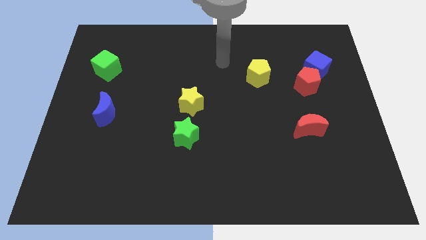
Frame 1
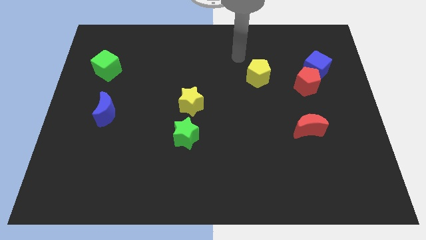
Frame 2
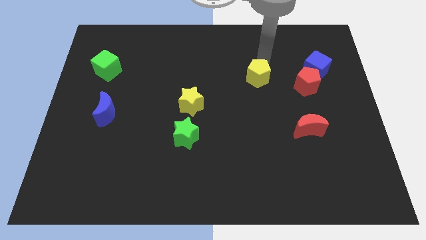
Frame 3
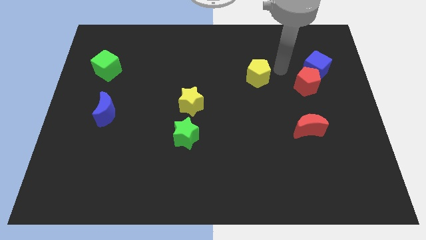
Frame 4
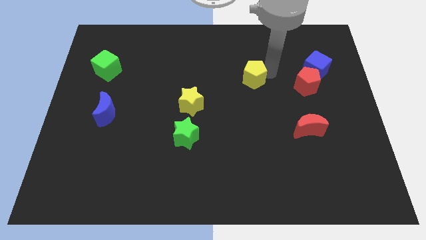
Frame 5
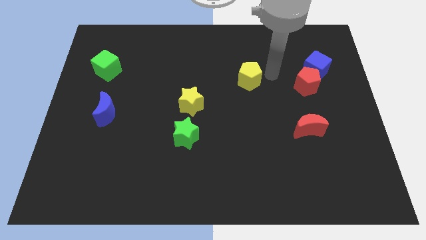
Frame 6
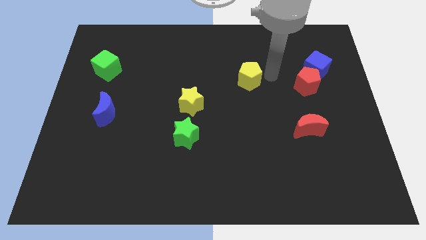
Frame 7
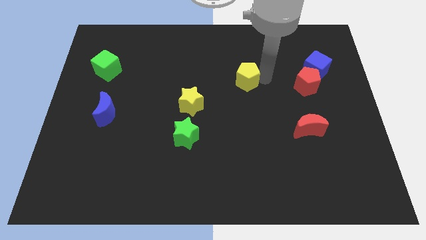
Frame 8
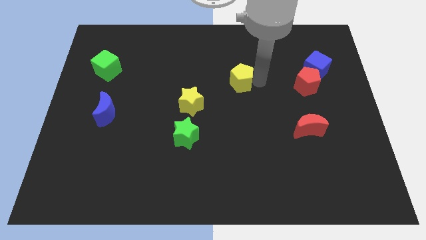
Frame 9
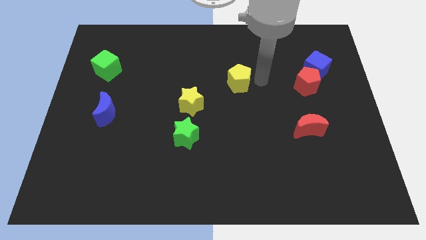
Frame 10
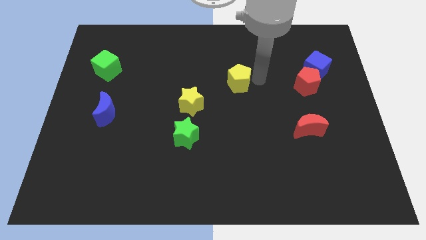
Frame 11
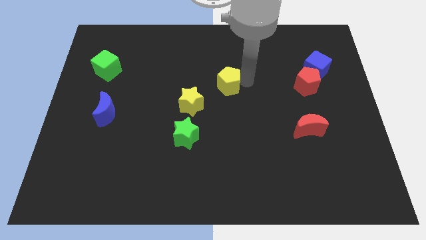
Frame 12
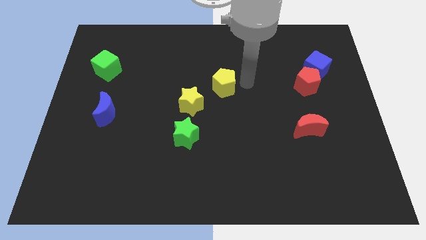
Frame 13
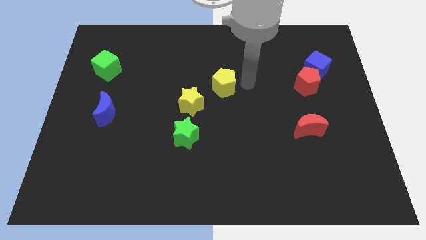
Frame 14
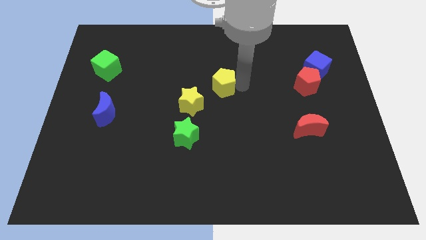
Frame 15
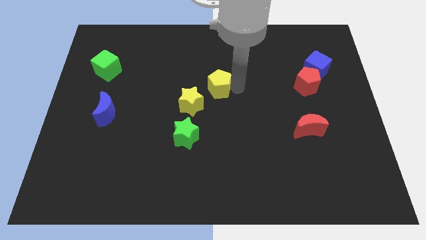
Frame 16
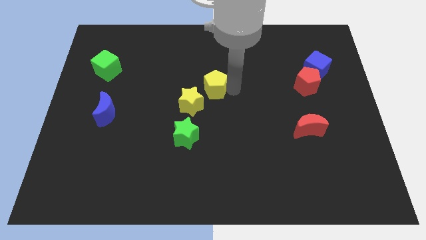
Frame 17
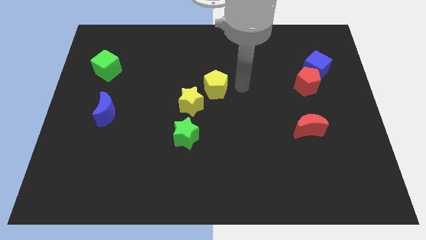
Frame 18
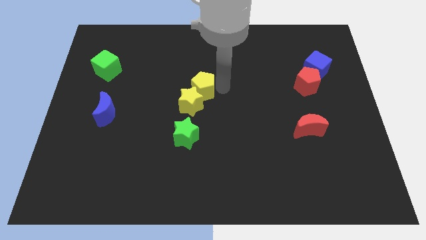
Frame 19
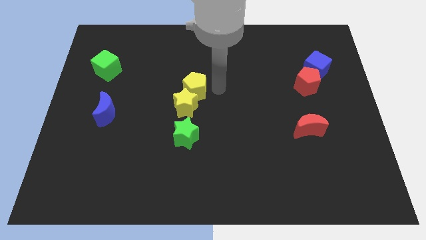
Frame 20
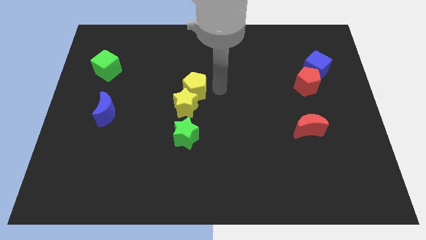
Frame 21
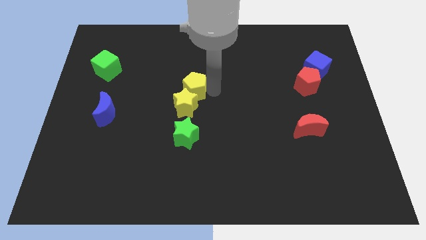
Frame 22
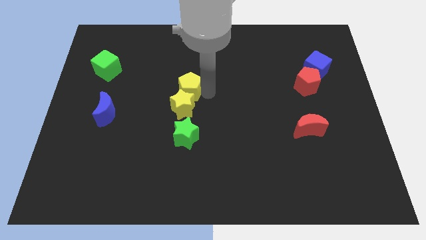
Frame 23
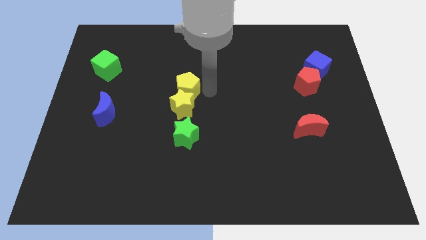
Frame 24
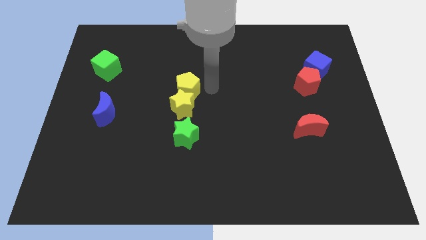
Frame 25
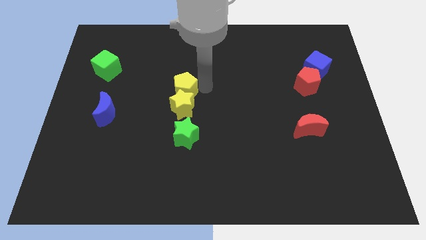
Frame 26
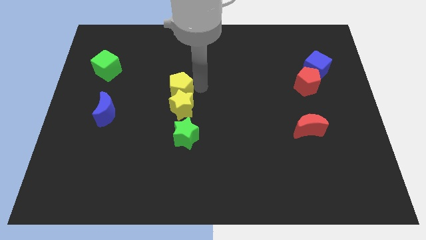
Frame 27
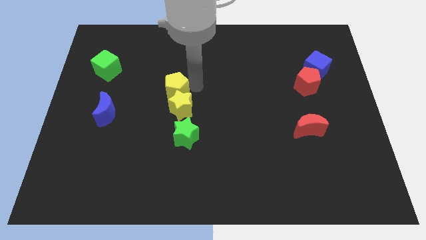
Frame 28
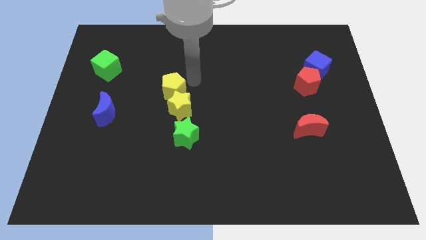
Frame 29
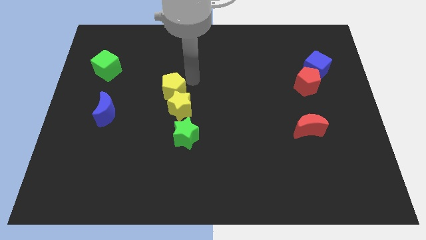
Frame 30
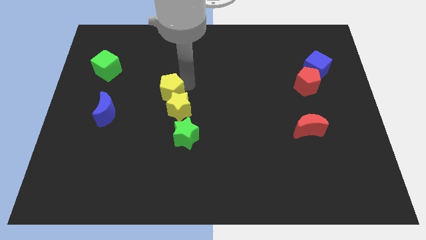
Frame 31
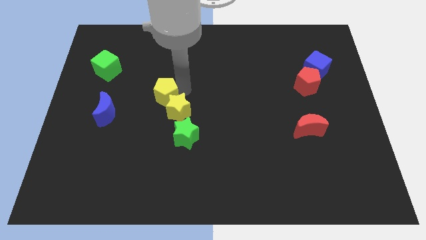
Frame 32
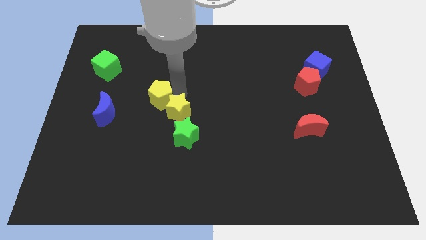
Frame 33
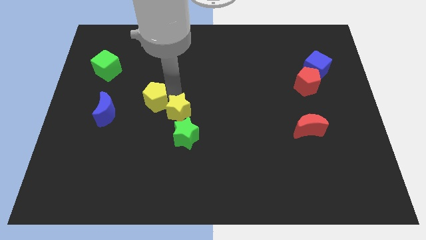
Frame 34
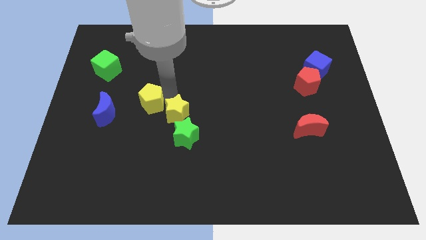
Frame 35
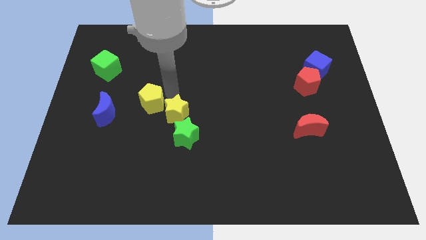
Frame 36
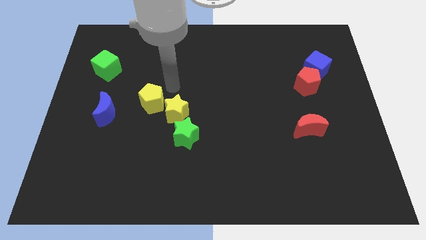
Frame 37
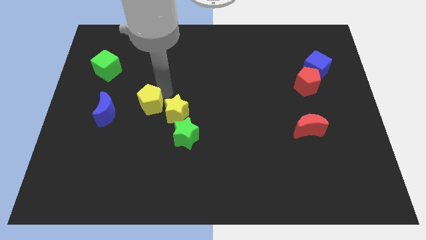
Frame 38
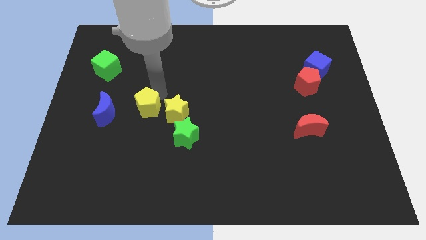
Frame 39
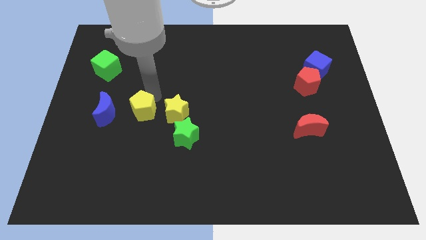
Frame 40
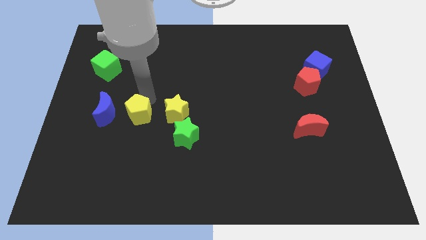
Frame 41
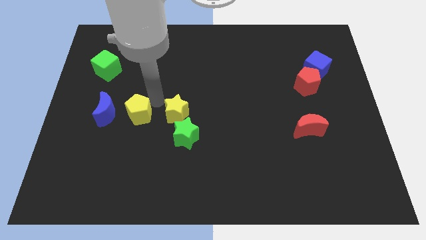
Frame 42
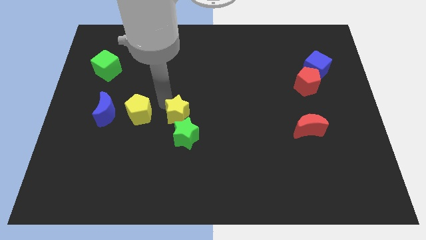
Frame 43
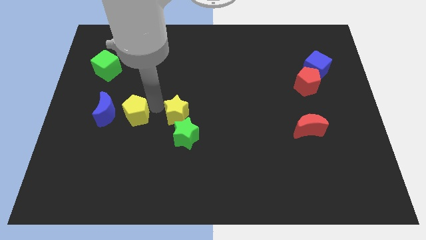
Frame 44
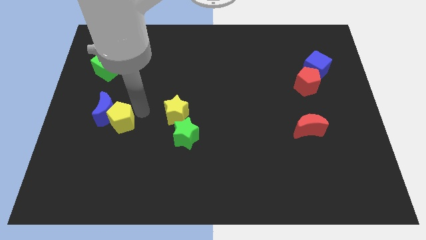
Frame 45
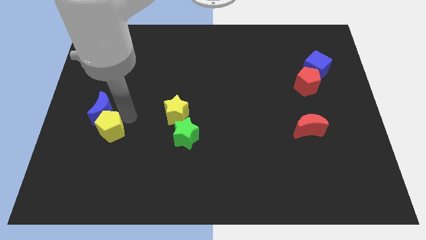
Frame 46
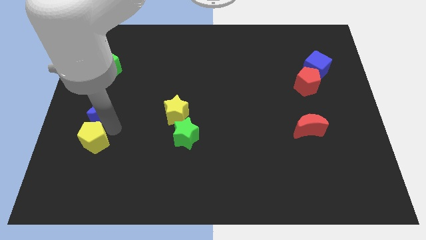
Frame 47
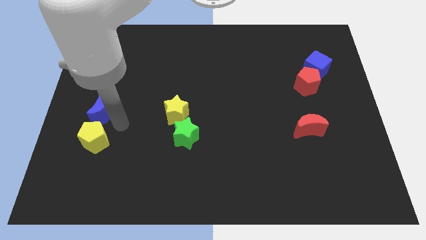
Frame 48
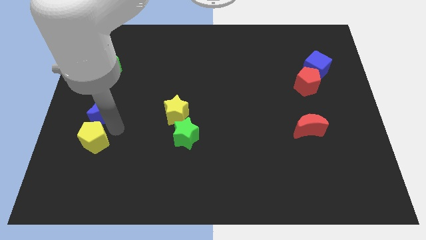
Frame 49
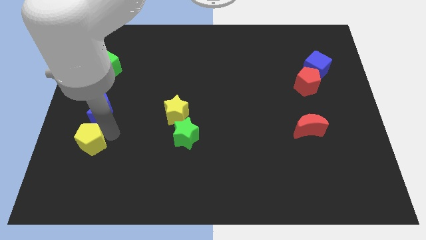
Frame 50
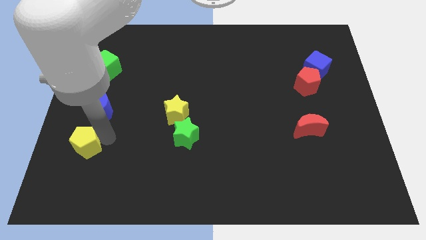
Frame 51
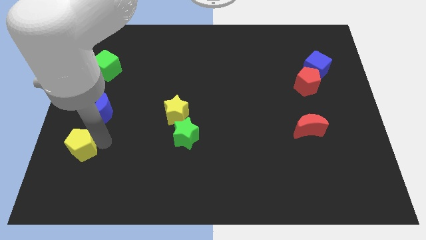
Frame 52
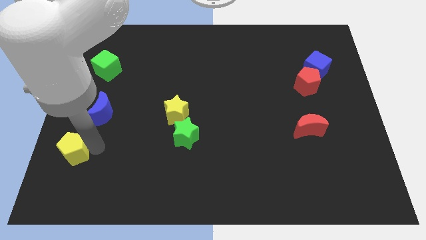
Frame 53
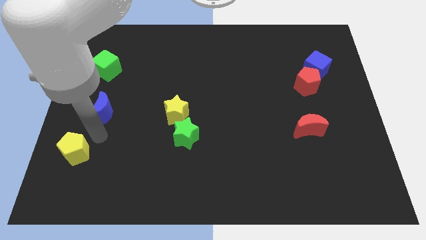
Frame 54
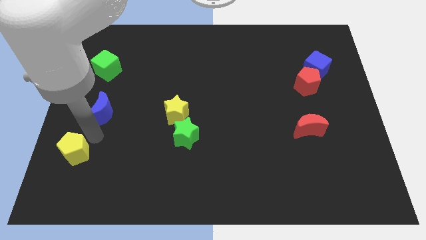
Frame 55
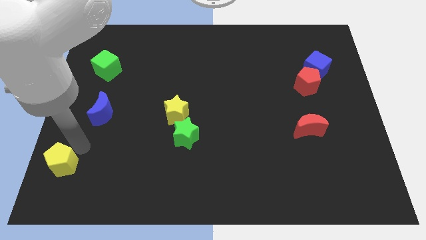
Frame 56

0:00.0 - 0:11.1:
put the yellow pentagon to the lower left corner

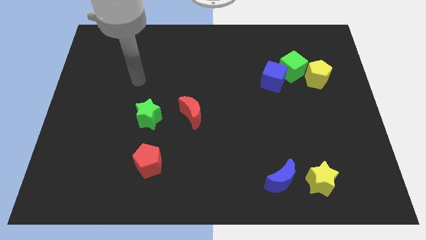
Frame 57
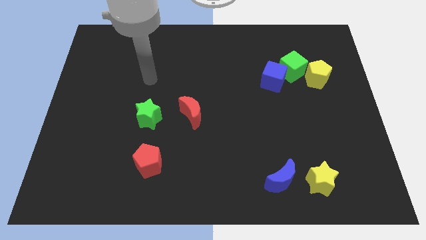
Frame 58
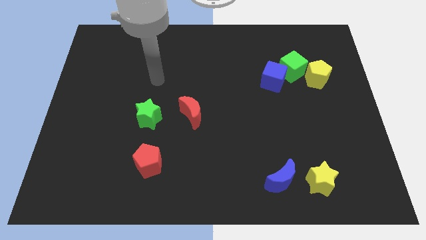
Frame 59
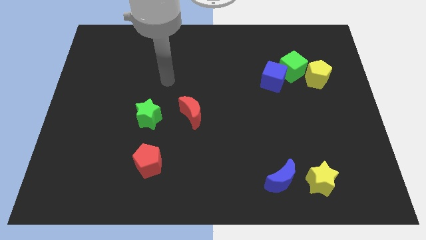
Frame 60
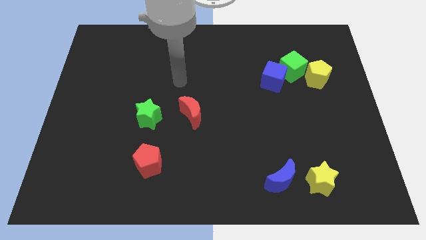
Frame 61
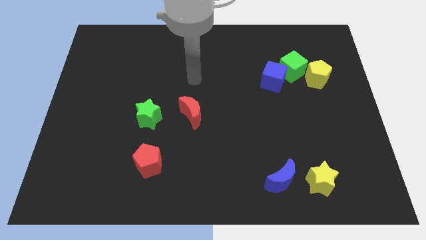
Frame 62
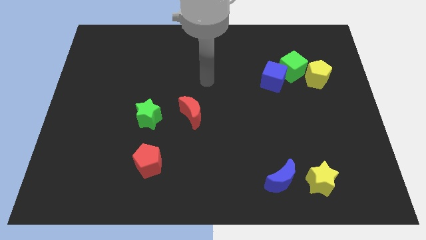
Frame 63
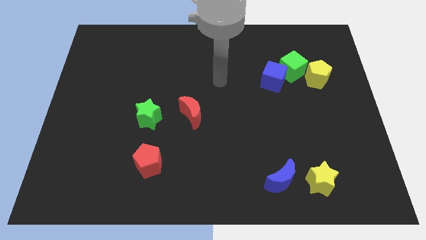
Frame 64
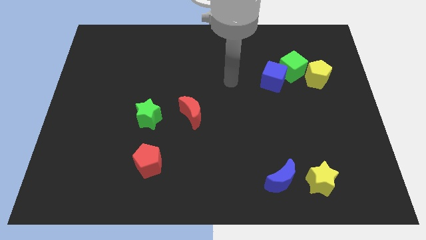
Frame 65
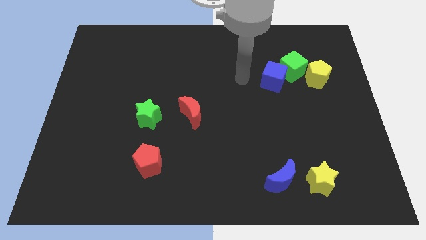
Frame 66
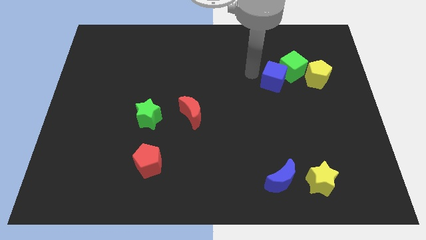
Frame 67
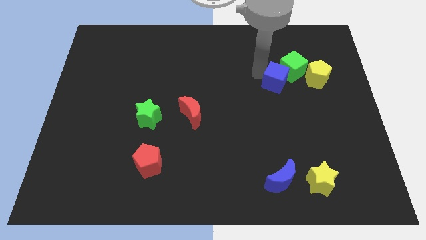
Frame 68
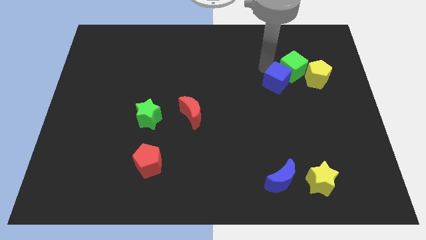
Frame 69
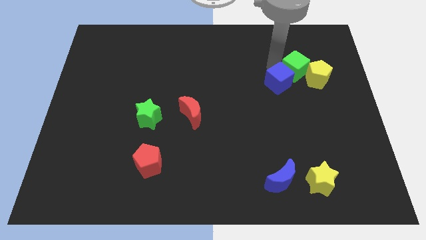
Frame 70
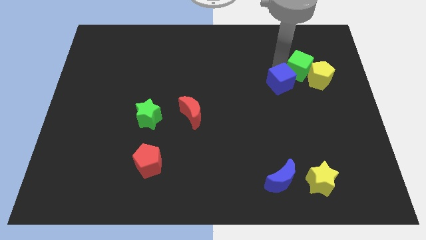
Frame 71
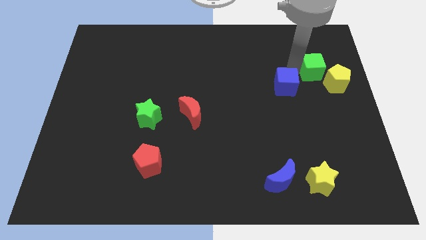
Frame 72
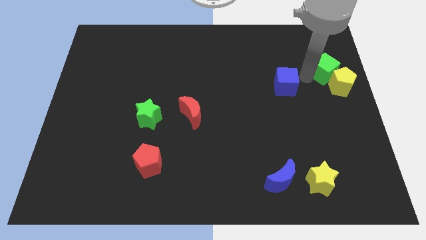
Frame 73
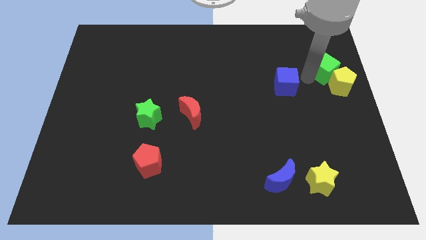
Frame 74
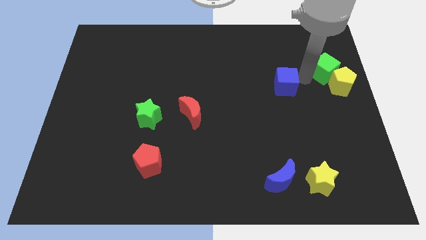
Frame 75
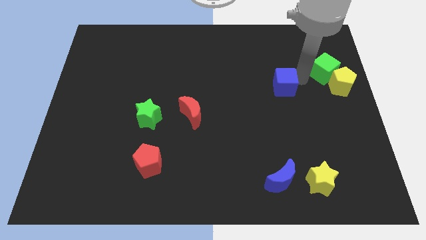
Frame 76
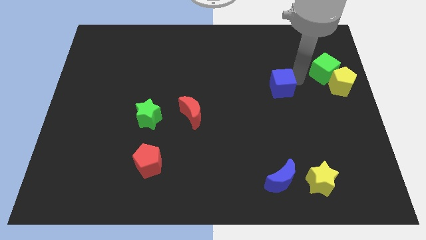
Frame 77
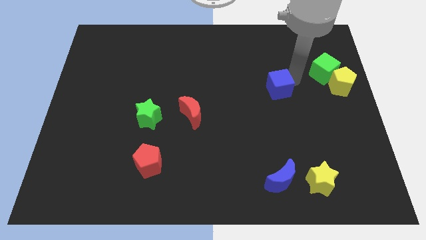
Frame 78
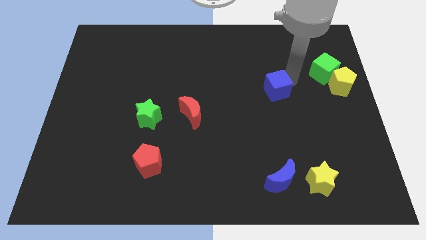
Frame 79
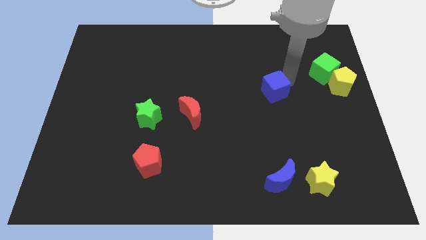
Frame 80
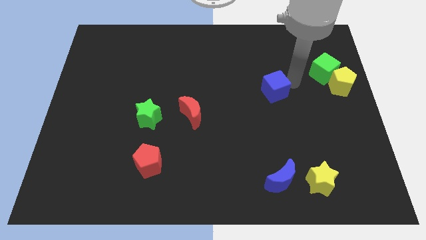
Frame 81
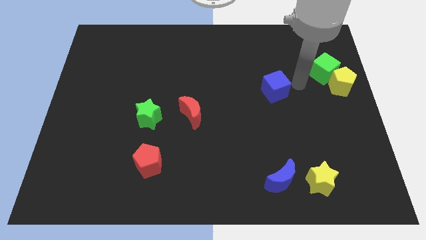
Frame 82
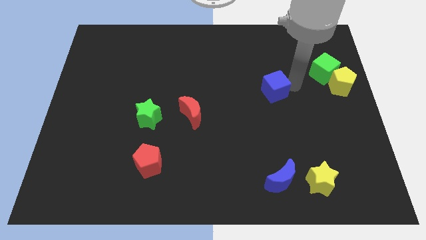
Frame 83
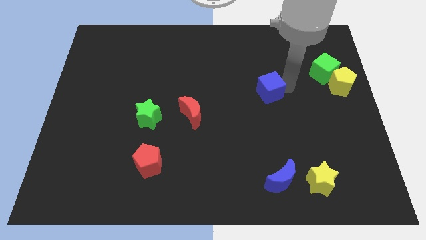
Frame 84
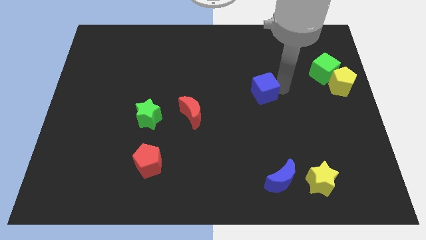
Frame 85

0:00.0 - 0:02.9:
push the blue cube to the center
